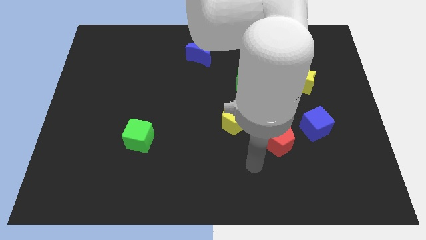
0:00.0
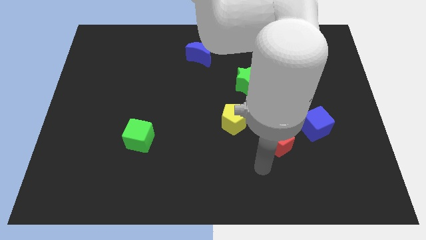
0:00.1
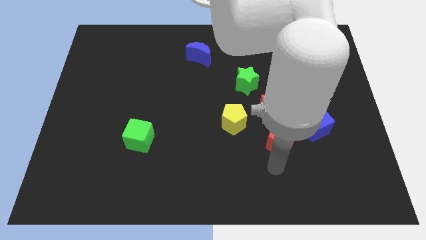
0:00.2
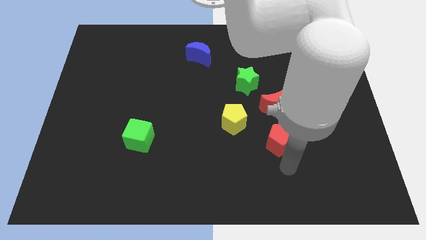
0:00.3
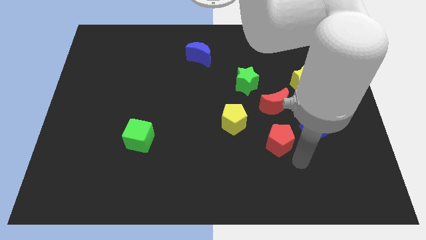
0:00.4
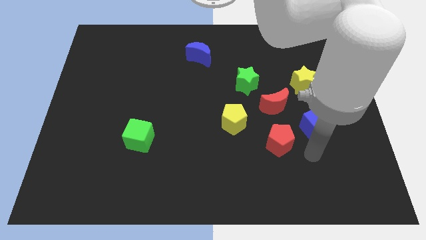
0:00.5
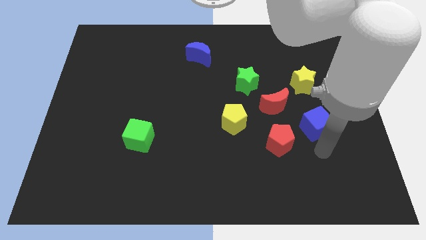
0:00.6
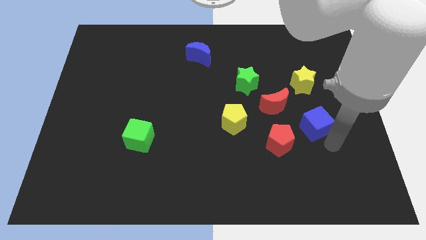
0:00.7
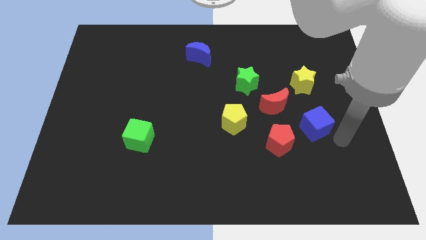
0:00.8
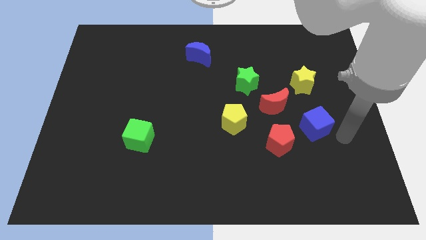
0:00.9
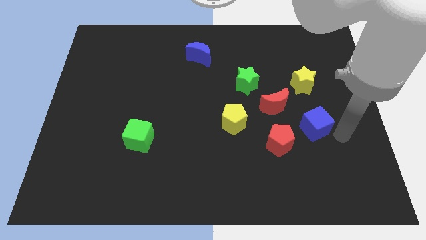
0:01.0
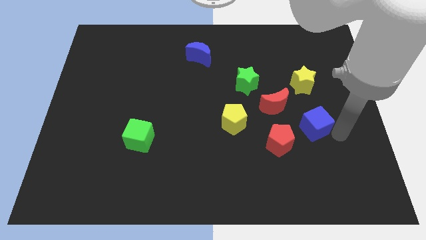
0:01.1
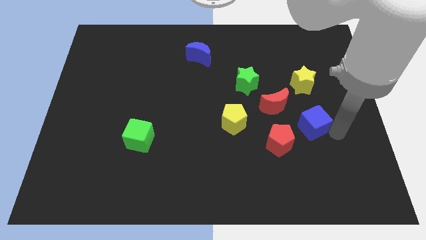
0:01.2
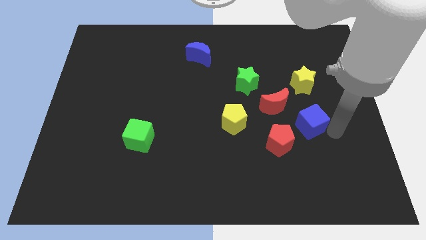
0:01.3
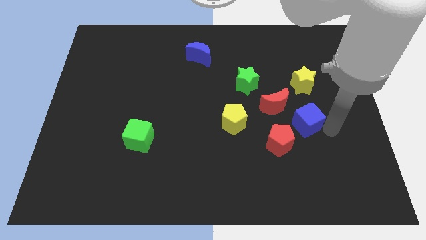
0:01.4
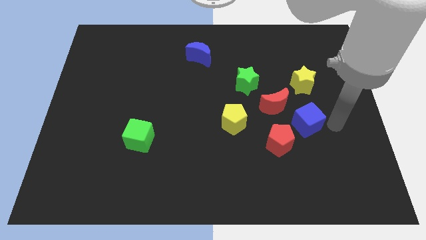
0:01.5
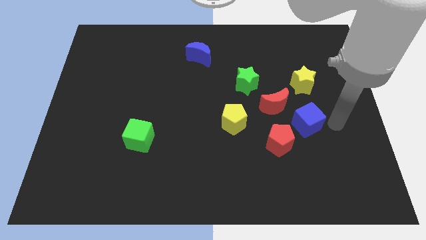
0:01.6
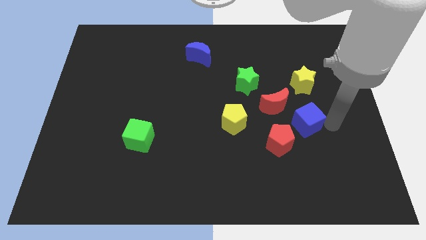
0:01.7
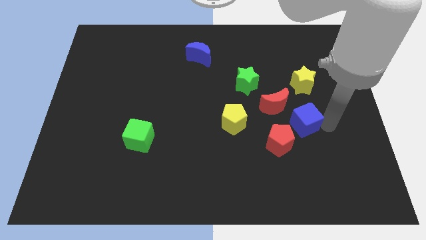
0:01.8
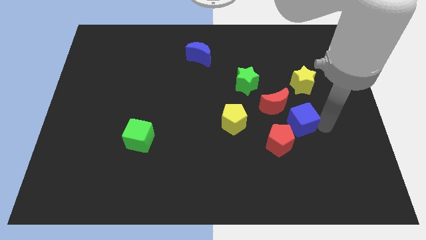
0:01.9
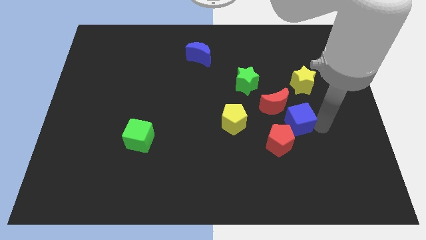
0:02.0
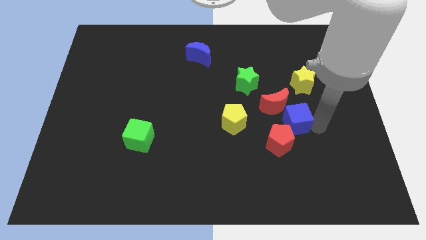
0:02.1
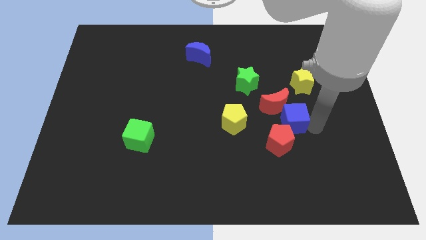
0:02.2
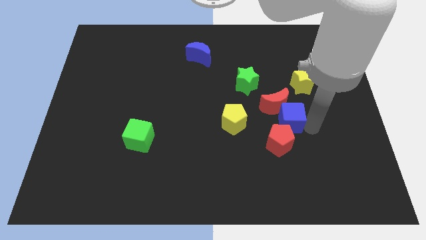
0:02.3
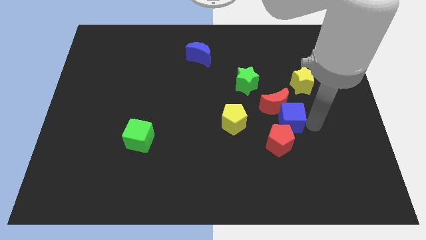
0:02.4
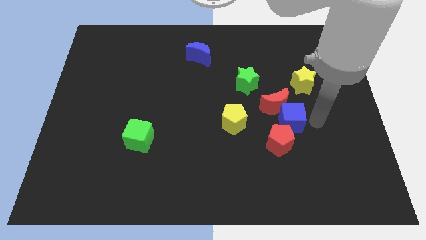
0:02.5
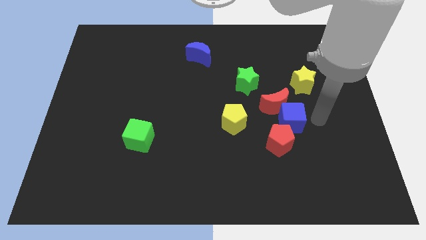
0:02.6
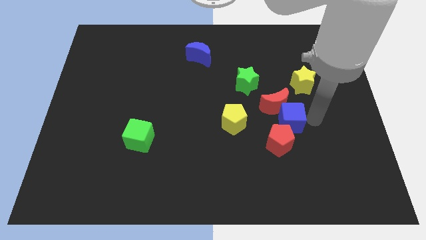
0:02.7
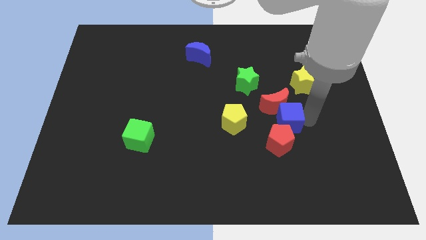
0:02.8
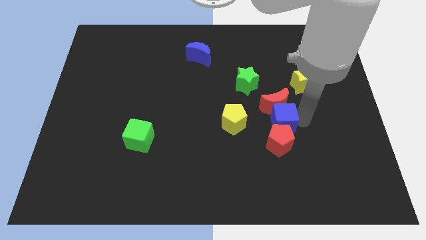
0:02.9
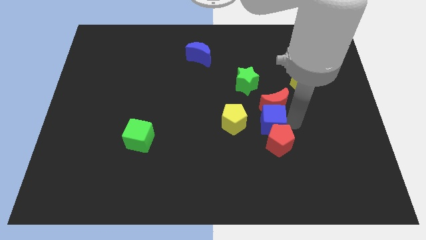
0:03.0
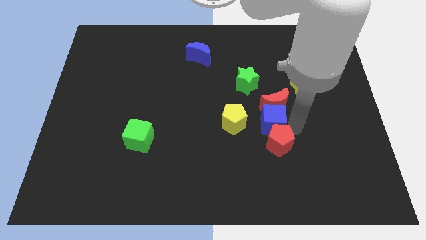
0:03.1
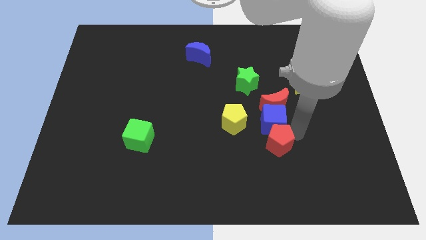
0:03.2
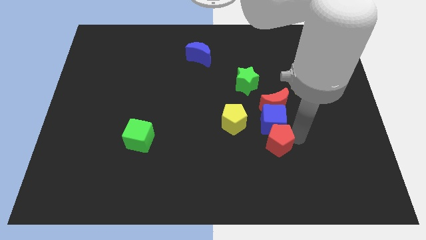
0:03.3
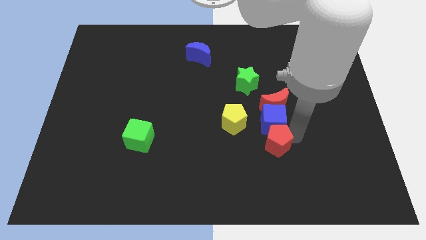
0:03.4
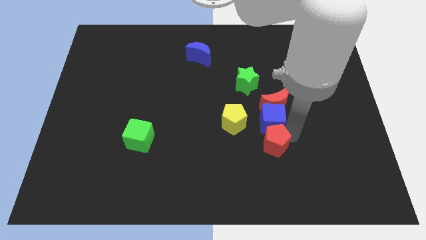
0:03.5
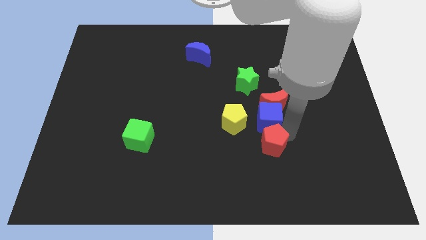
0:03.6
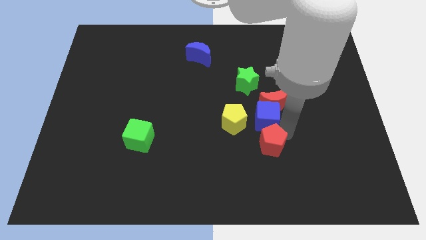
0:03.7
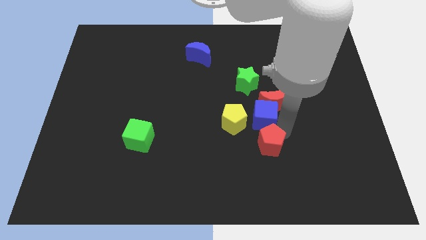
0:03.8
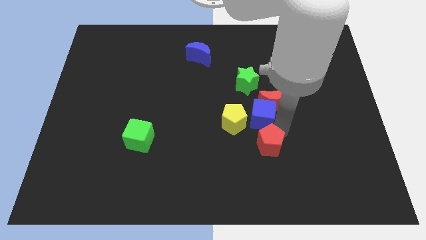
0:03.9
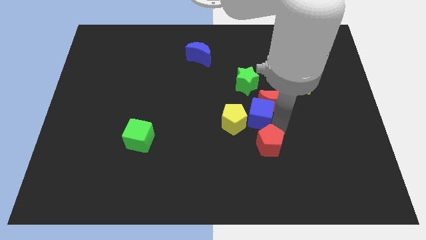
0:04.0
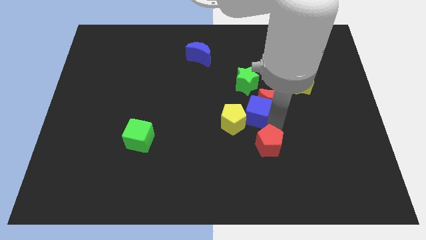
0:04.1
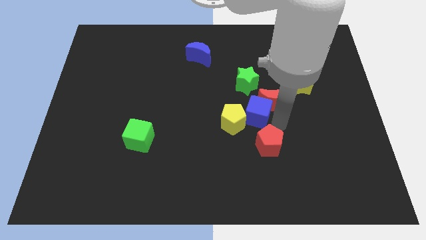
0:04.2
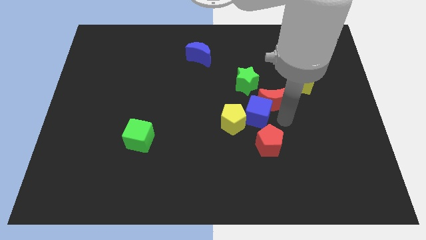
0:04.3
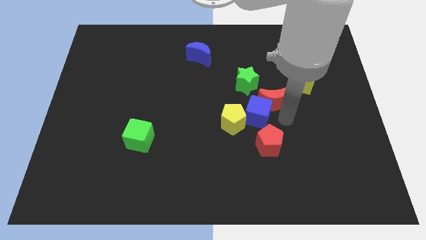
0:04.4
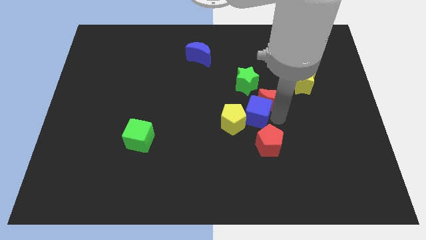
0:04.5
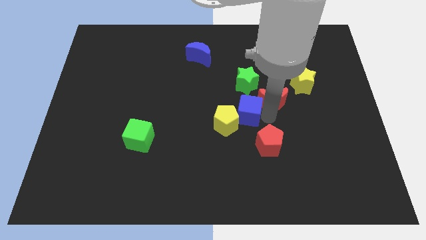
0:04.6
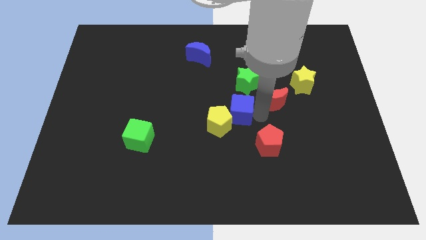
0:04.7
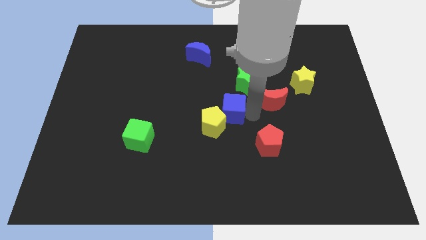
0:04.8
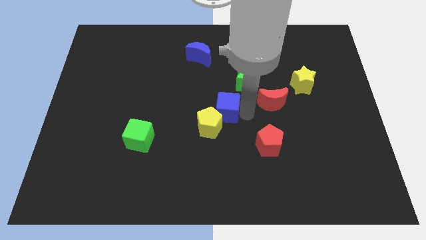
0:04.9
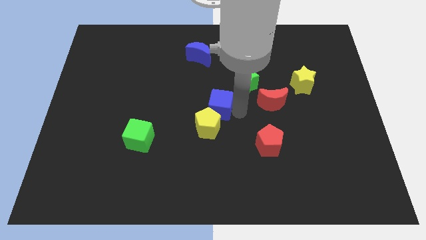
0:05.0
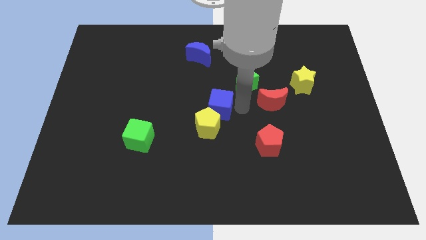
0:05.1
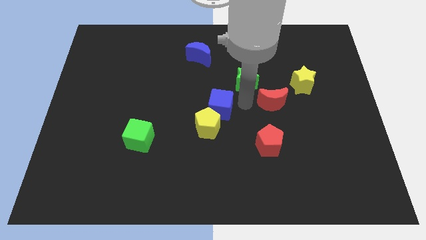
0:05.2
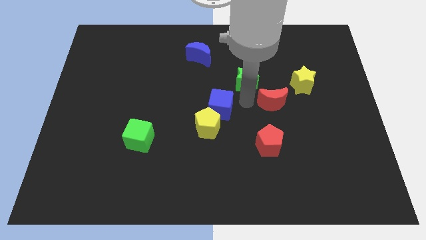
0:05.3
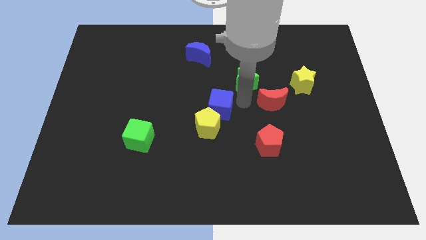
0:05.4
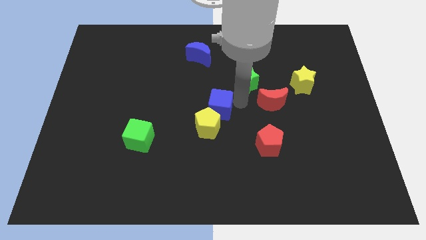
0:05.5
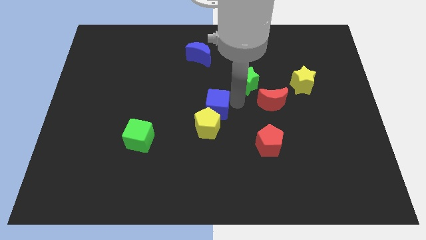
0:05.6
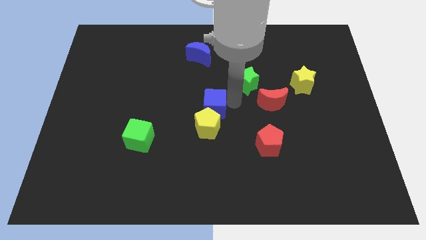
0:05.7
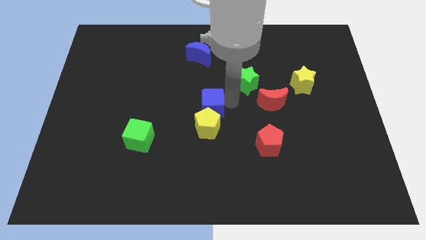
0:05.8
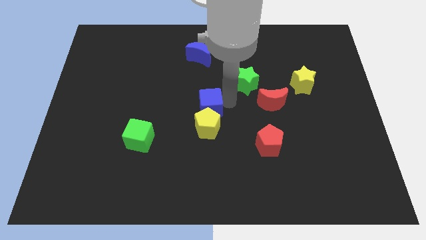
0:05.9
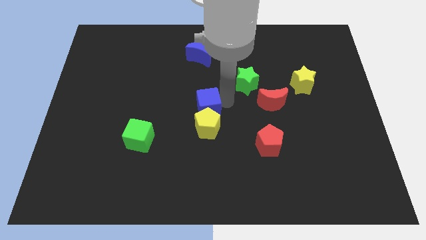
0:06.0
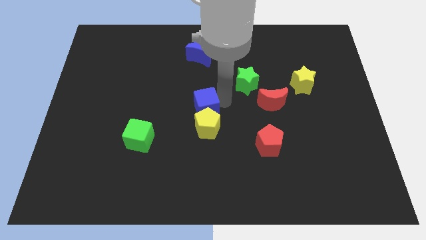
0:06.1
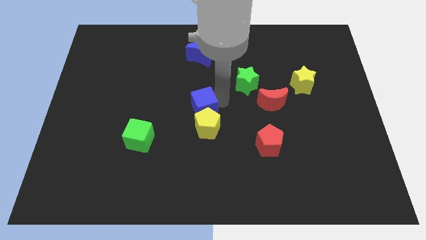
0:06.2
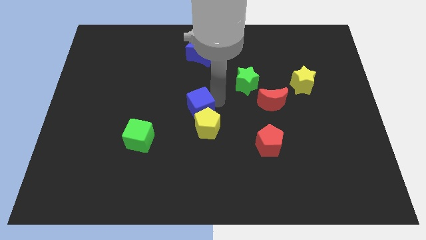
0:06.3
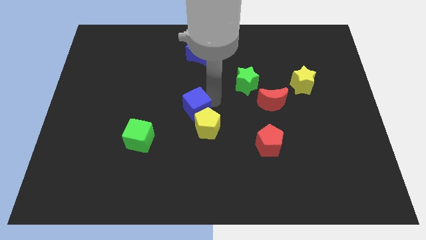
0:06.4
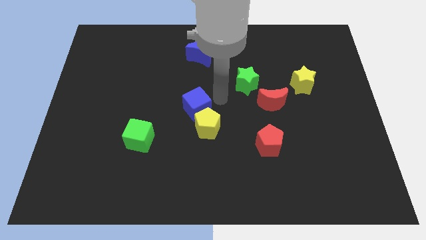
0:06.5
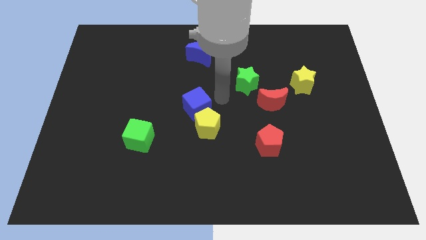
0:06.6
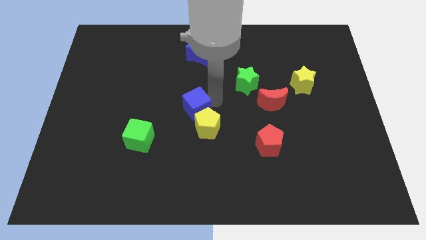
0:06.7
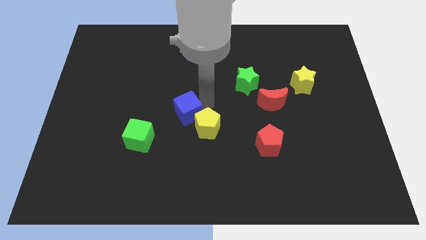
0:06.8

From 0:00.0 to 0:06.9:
put the blue cube diagonally up and to the right of the green cube
